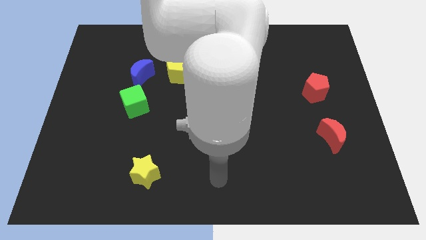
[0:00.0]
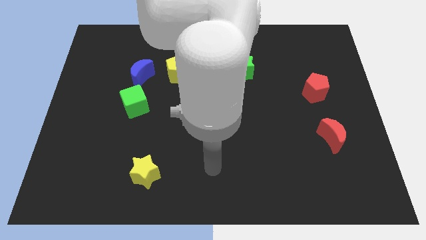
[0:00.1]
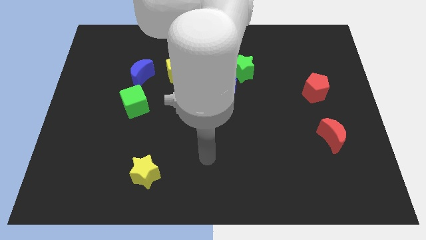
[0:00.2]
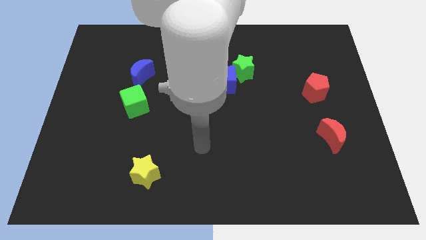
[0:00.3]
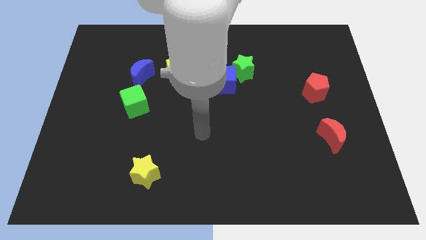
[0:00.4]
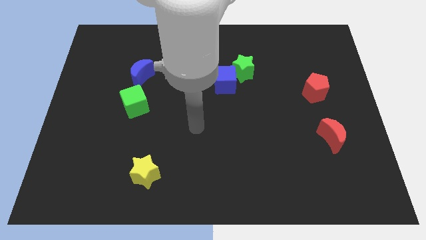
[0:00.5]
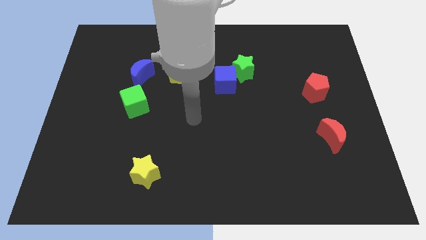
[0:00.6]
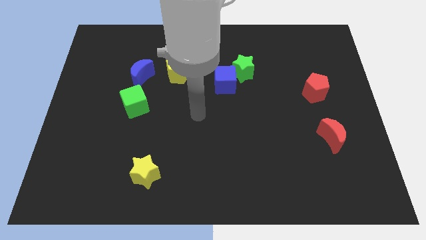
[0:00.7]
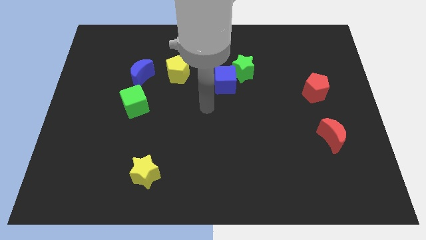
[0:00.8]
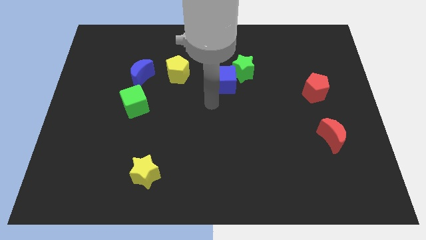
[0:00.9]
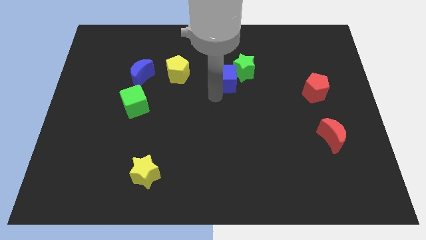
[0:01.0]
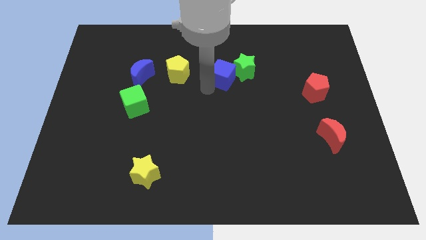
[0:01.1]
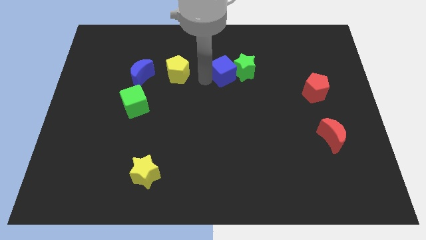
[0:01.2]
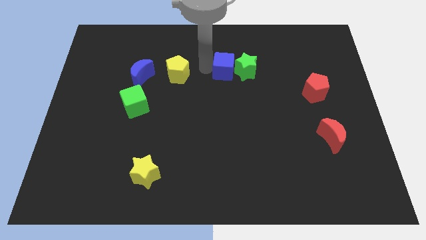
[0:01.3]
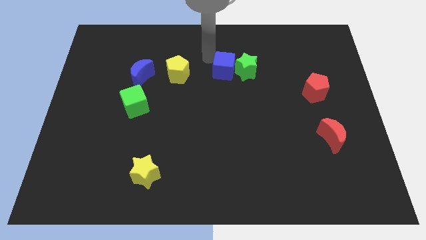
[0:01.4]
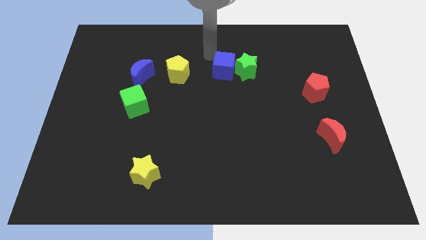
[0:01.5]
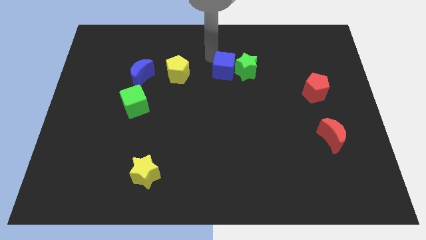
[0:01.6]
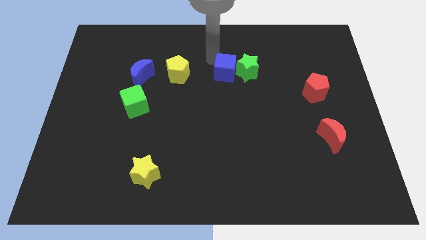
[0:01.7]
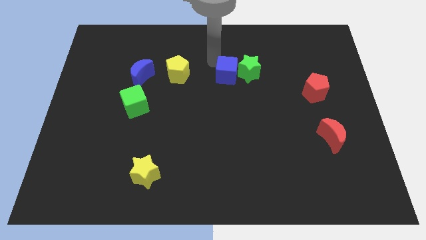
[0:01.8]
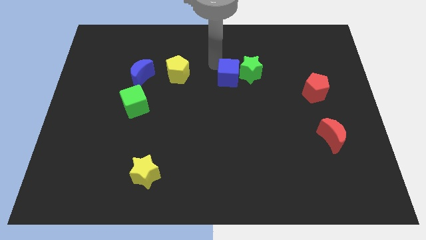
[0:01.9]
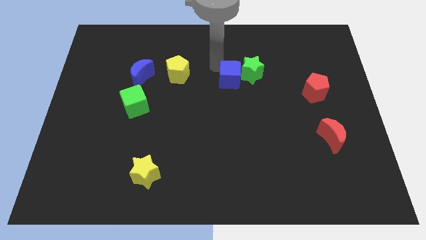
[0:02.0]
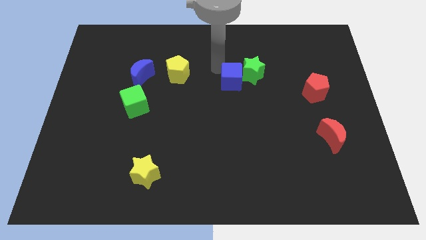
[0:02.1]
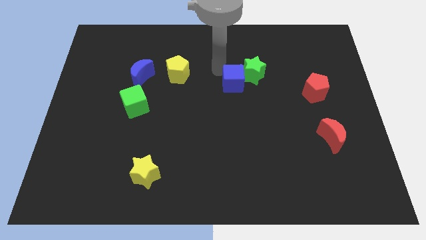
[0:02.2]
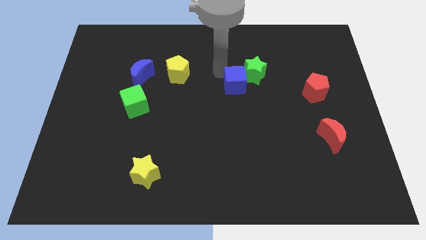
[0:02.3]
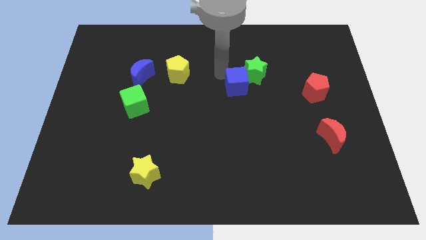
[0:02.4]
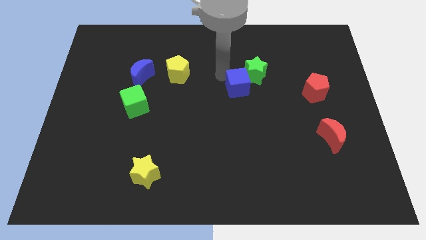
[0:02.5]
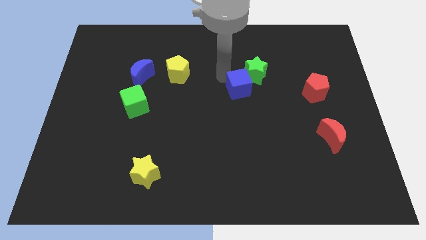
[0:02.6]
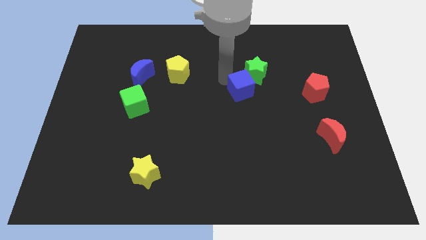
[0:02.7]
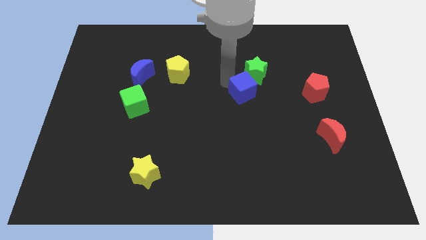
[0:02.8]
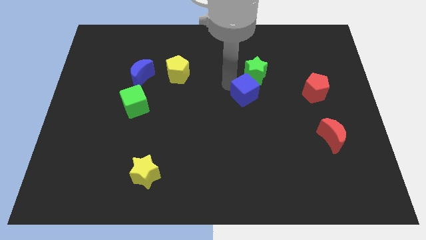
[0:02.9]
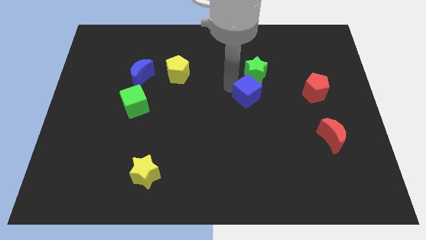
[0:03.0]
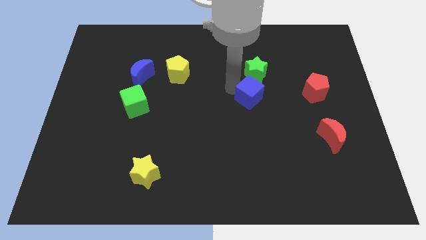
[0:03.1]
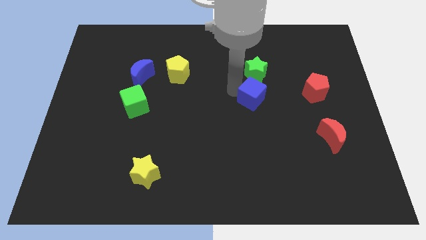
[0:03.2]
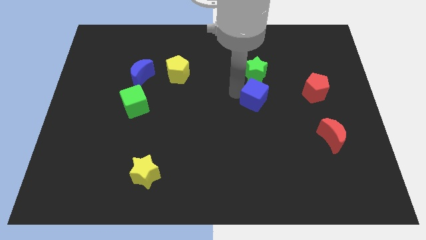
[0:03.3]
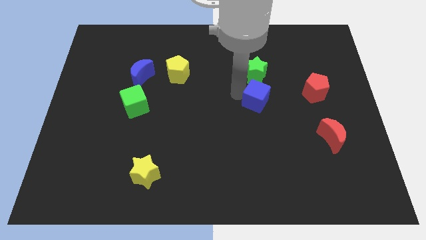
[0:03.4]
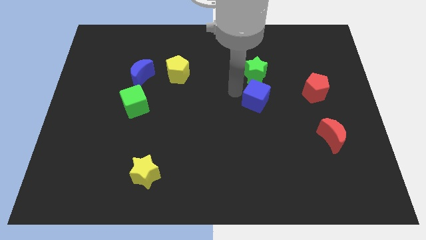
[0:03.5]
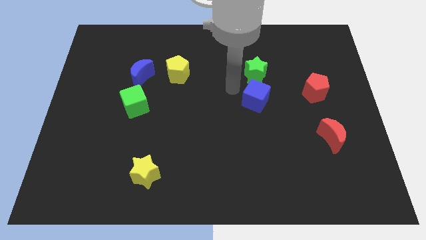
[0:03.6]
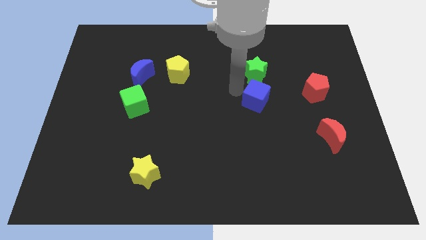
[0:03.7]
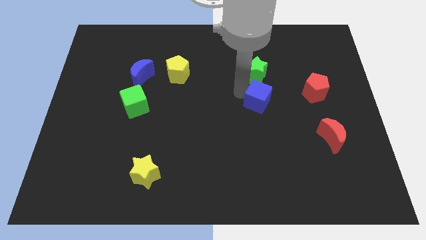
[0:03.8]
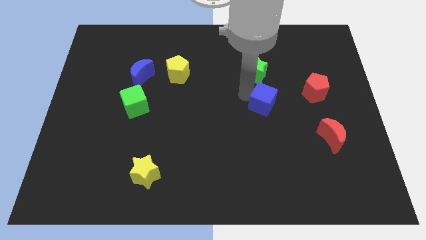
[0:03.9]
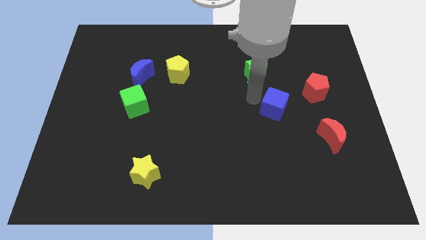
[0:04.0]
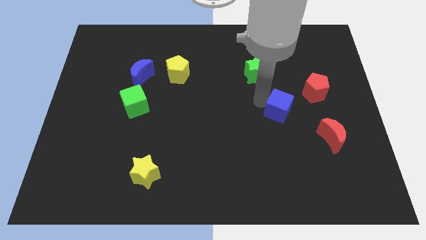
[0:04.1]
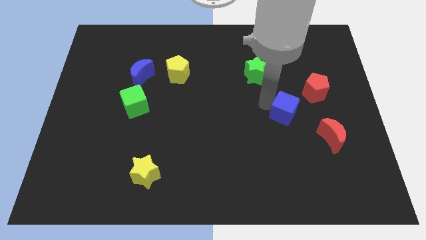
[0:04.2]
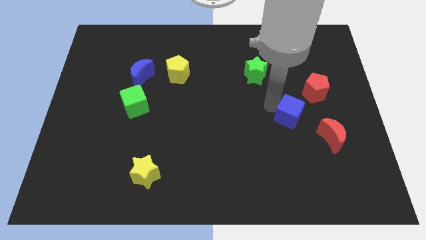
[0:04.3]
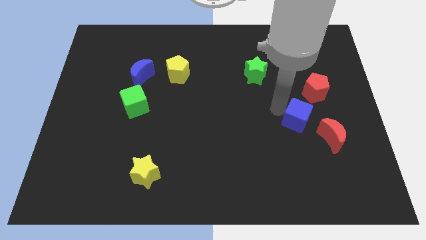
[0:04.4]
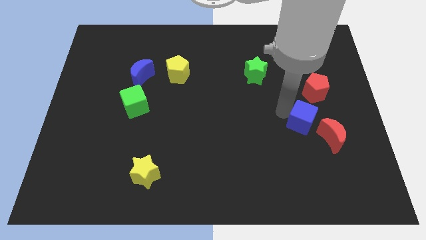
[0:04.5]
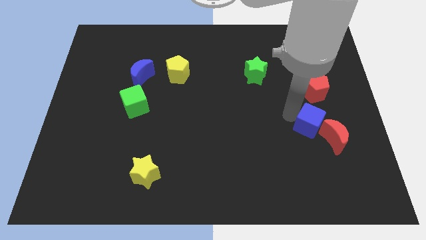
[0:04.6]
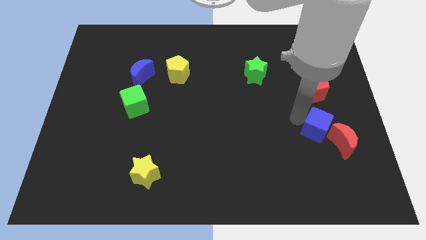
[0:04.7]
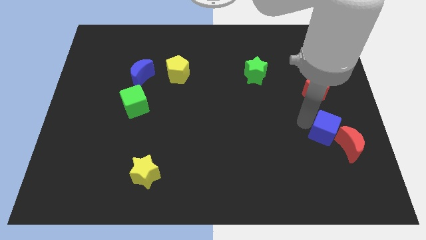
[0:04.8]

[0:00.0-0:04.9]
put the blue cube close to the red moon

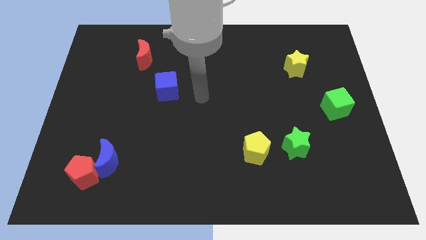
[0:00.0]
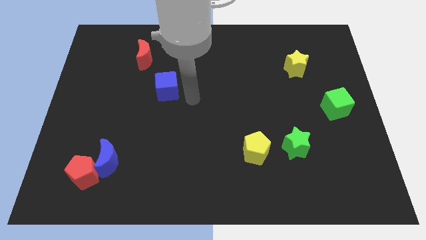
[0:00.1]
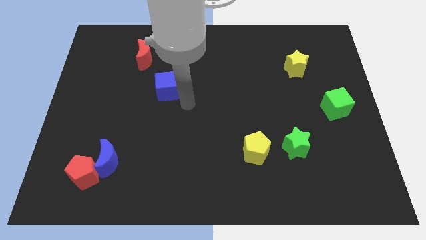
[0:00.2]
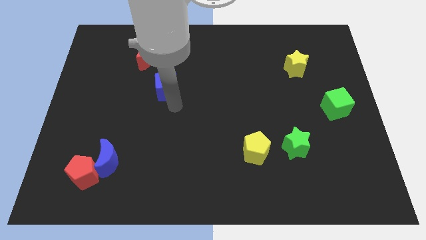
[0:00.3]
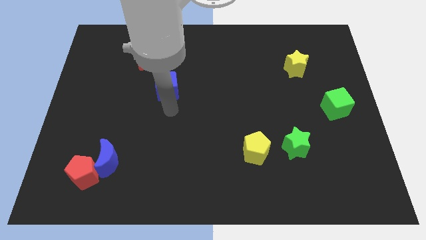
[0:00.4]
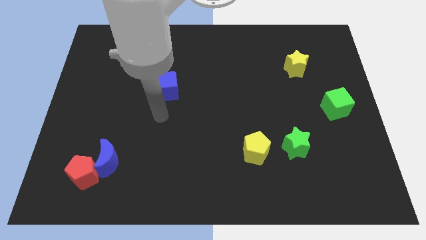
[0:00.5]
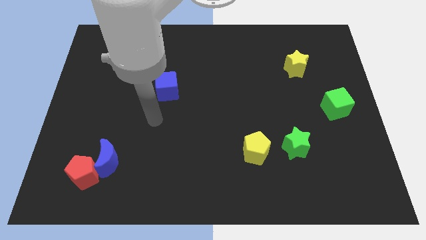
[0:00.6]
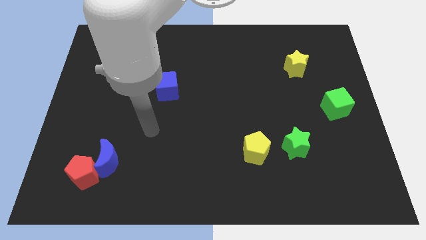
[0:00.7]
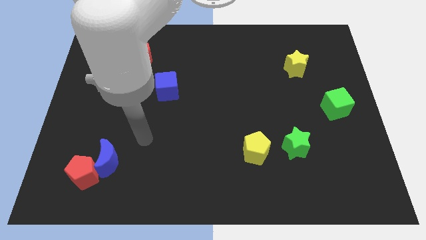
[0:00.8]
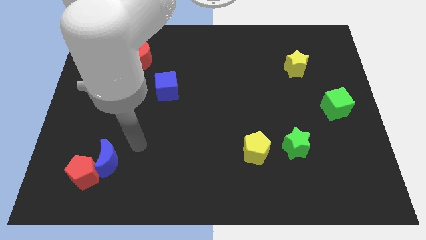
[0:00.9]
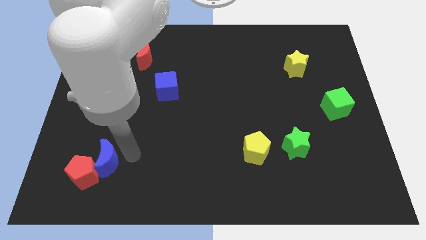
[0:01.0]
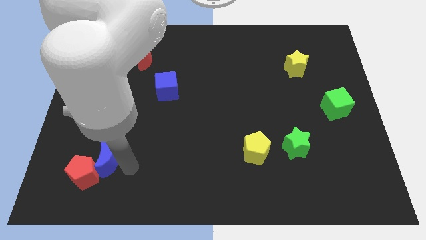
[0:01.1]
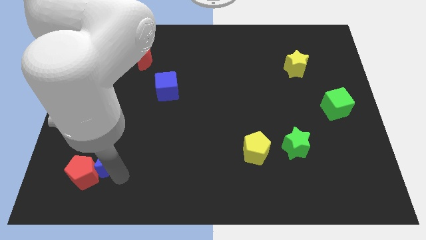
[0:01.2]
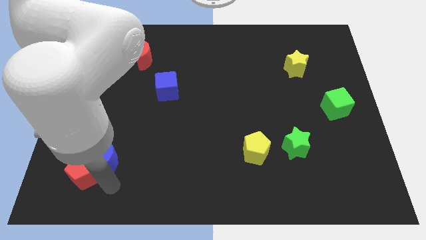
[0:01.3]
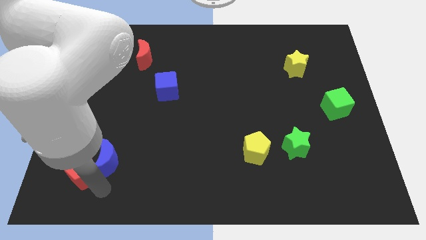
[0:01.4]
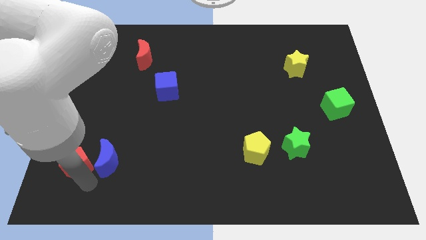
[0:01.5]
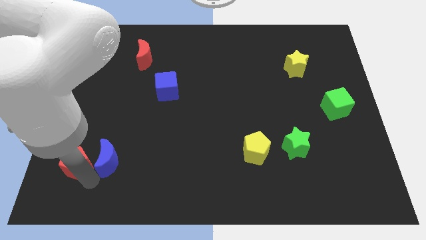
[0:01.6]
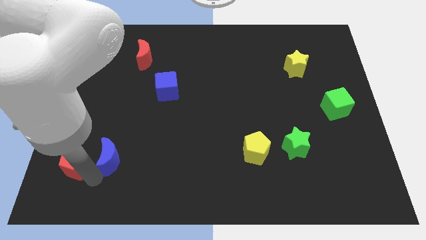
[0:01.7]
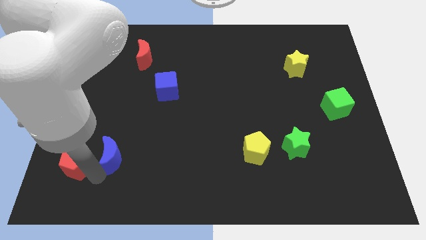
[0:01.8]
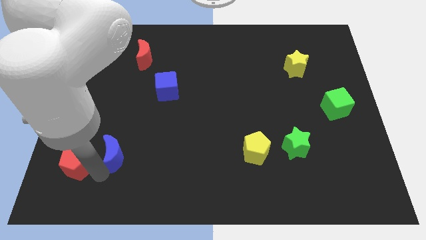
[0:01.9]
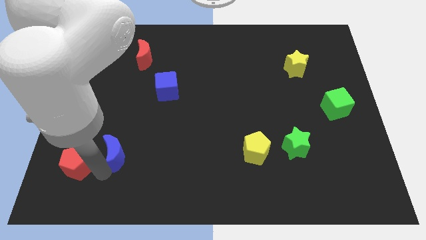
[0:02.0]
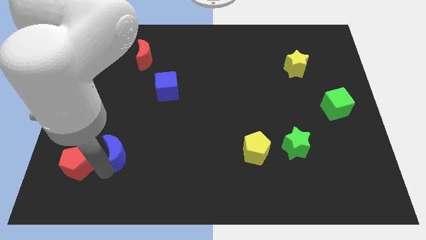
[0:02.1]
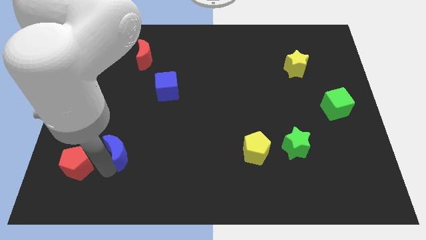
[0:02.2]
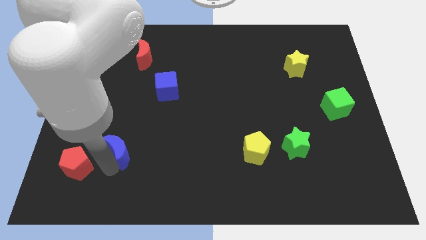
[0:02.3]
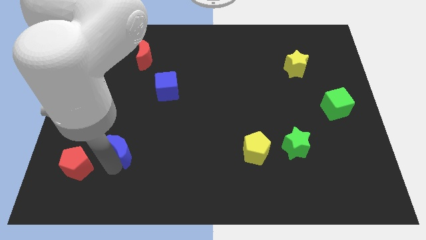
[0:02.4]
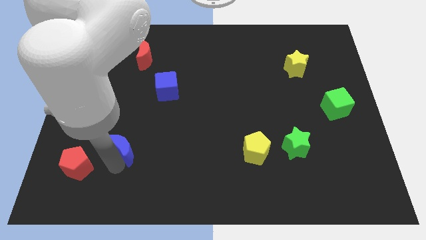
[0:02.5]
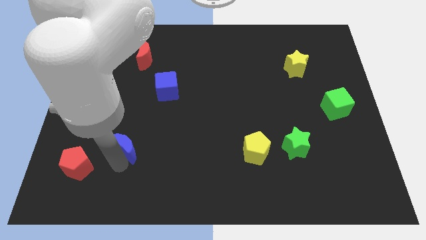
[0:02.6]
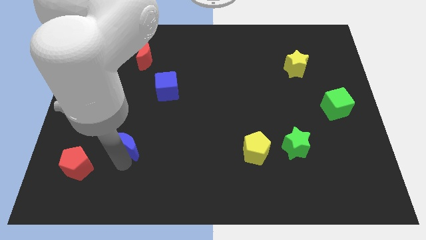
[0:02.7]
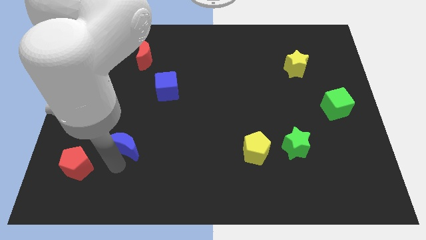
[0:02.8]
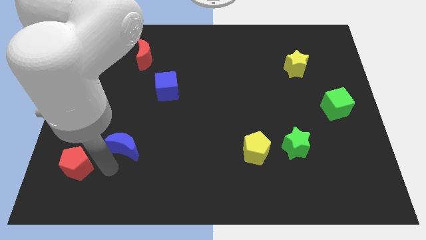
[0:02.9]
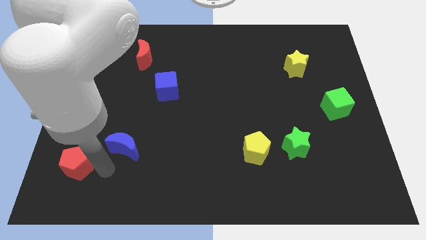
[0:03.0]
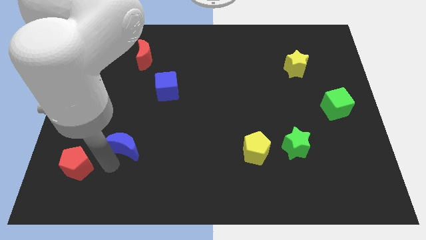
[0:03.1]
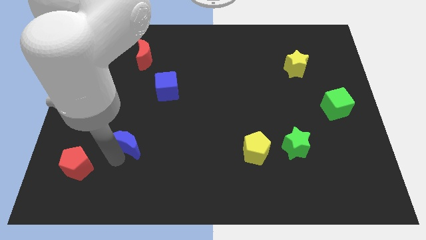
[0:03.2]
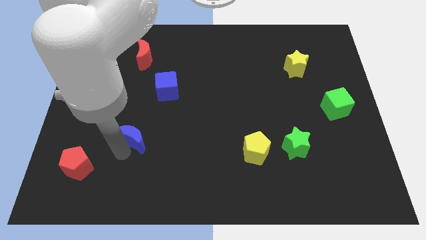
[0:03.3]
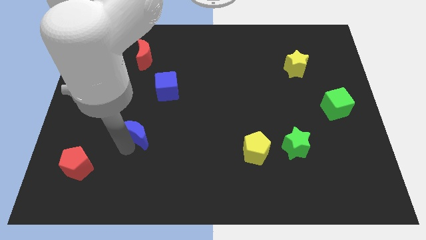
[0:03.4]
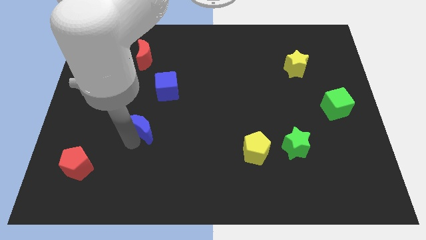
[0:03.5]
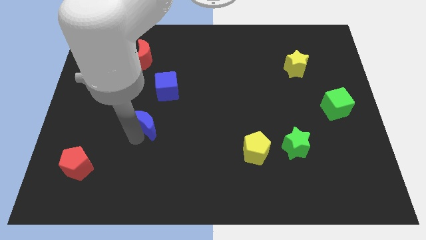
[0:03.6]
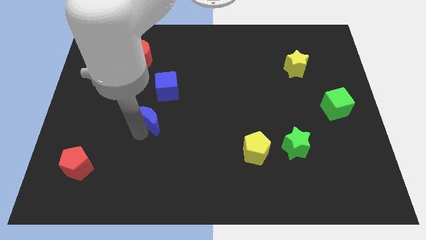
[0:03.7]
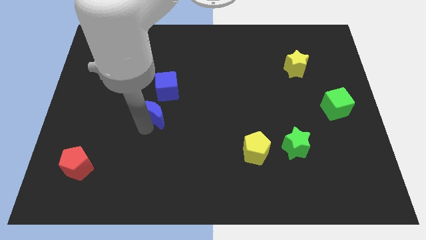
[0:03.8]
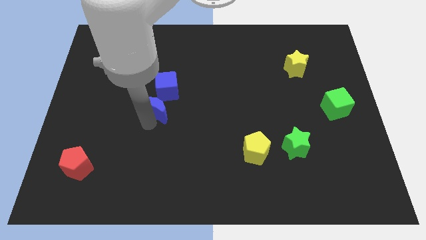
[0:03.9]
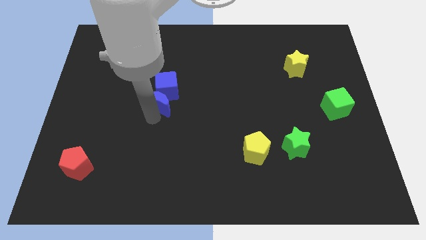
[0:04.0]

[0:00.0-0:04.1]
push the blue moon close to the blue cube
